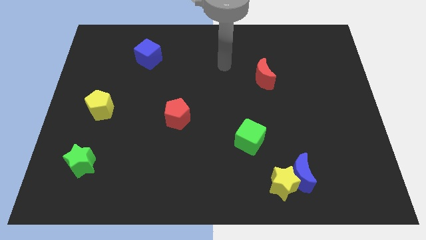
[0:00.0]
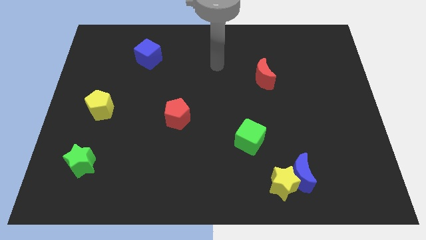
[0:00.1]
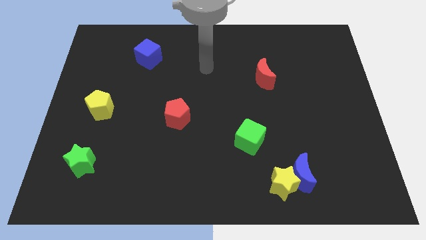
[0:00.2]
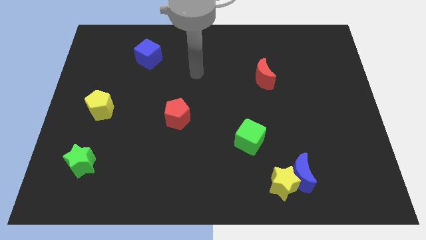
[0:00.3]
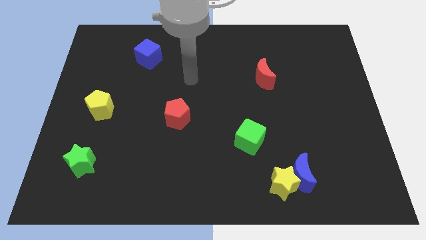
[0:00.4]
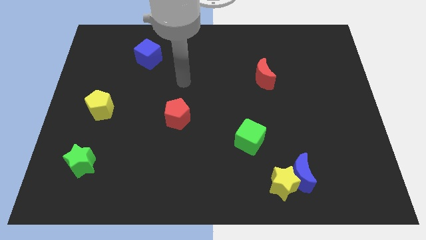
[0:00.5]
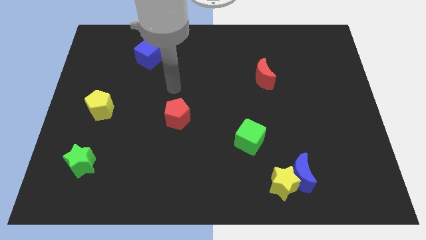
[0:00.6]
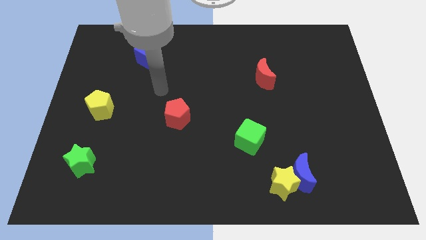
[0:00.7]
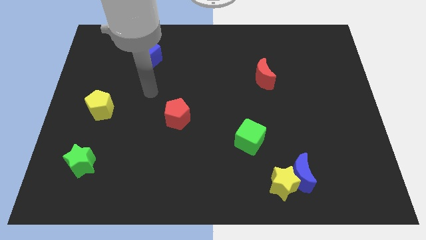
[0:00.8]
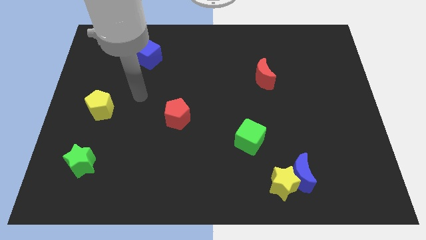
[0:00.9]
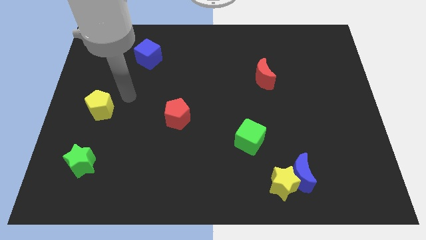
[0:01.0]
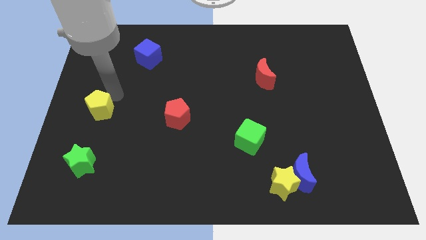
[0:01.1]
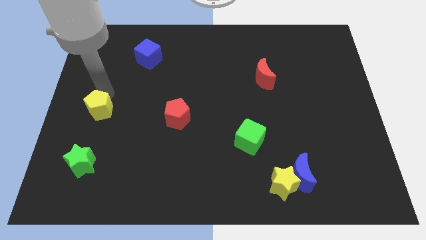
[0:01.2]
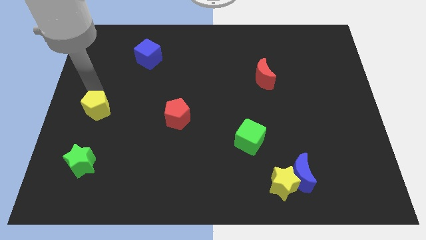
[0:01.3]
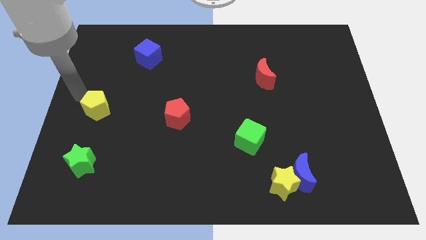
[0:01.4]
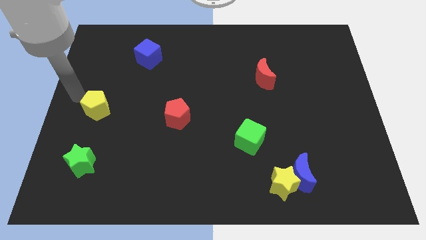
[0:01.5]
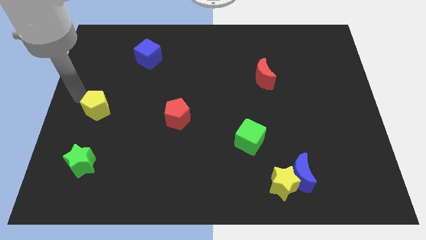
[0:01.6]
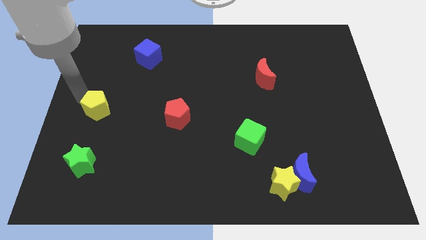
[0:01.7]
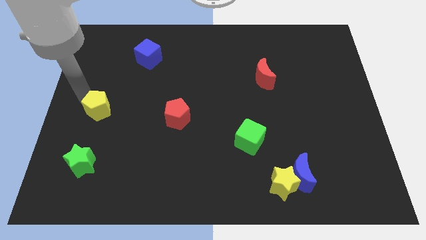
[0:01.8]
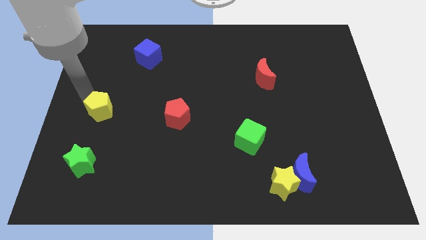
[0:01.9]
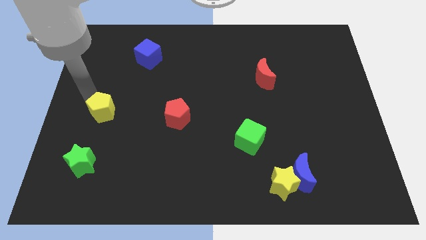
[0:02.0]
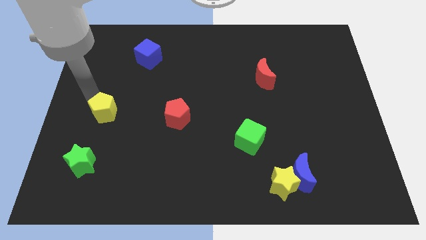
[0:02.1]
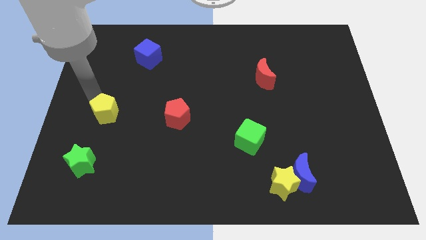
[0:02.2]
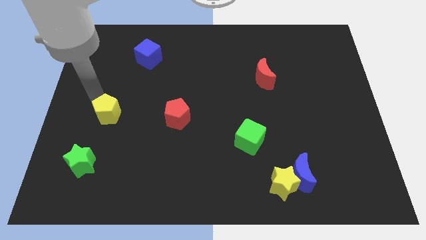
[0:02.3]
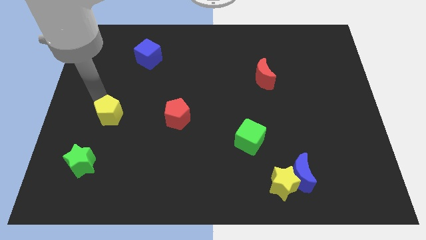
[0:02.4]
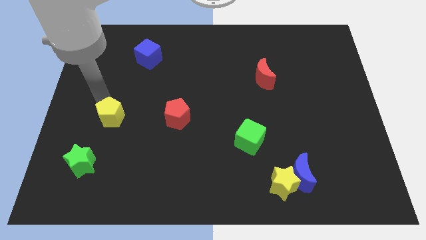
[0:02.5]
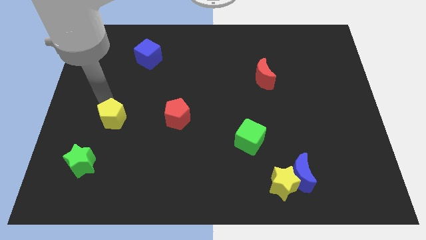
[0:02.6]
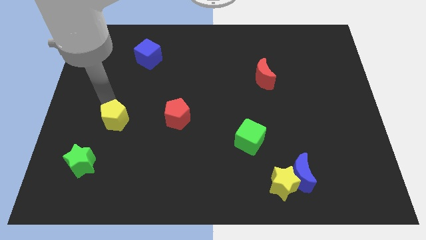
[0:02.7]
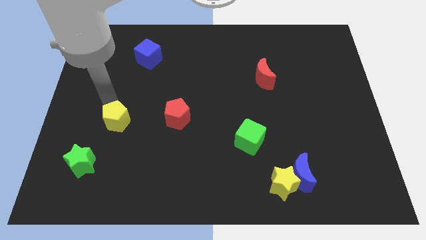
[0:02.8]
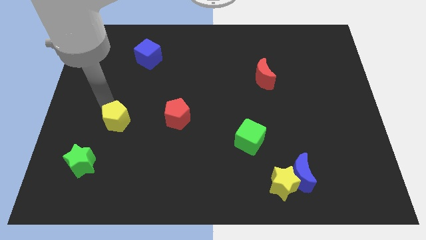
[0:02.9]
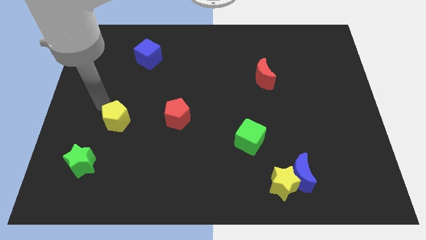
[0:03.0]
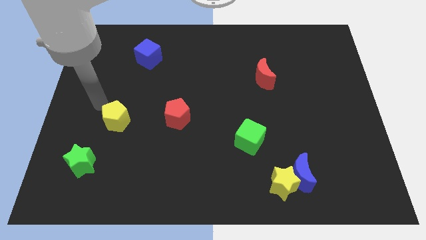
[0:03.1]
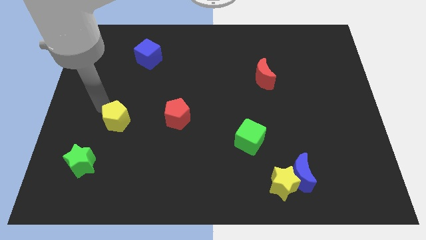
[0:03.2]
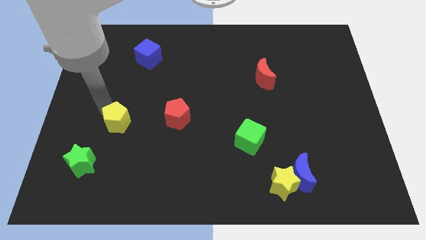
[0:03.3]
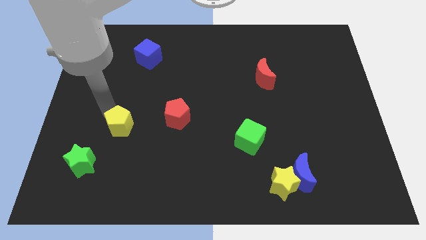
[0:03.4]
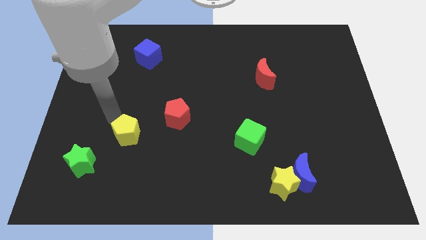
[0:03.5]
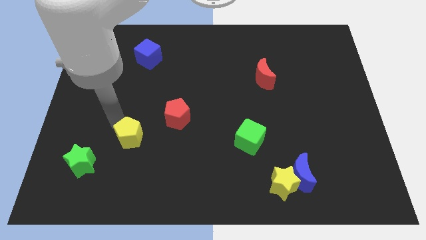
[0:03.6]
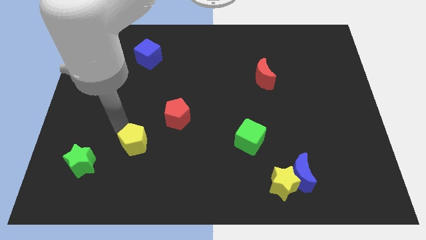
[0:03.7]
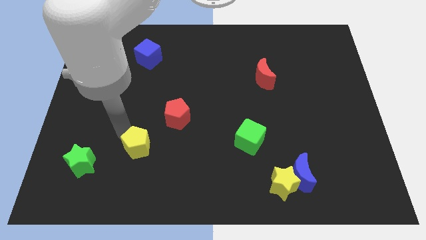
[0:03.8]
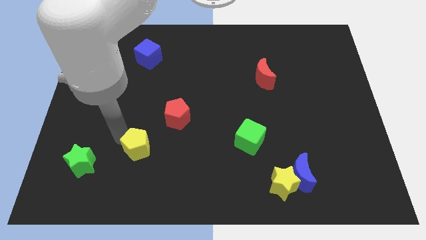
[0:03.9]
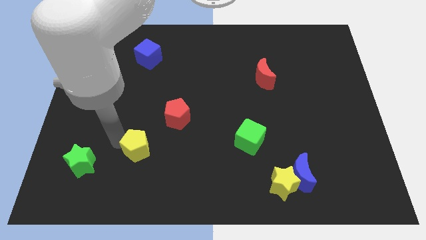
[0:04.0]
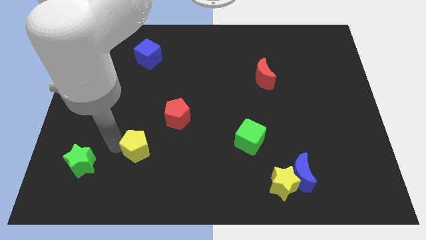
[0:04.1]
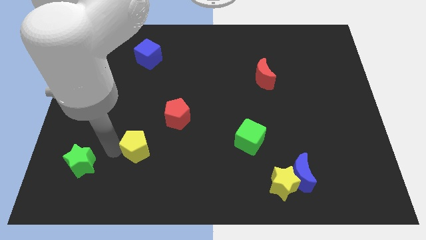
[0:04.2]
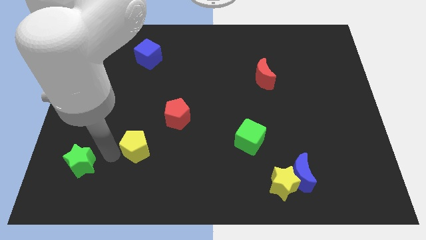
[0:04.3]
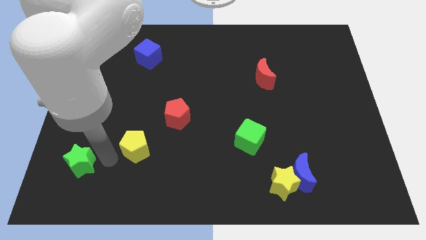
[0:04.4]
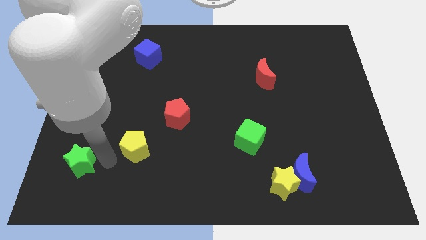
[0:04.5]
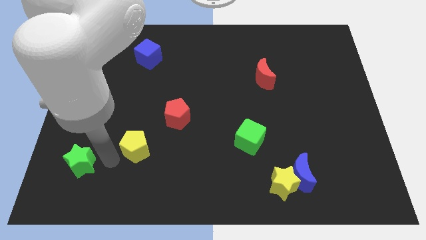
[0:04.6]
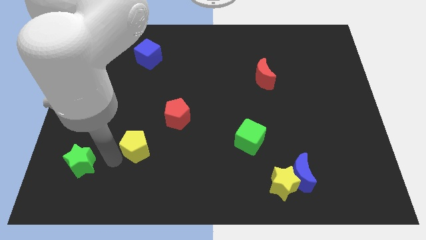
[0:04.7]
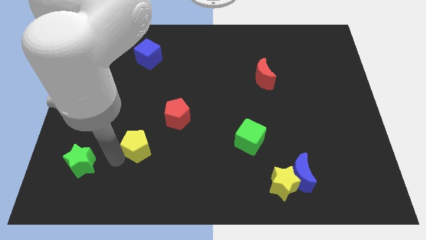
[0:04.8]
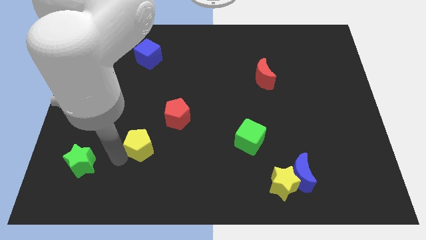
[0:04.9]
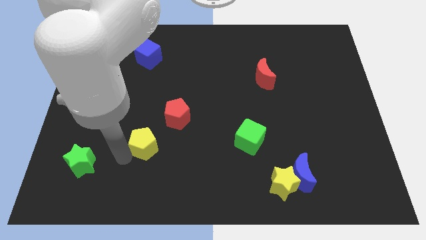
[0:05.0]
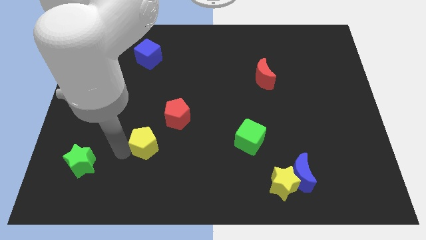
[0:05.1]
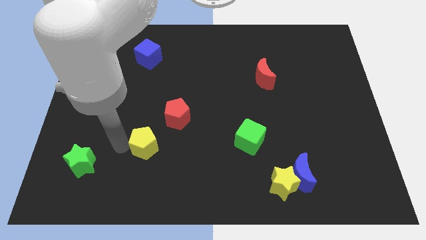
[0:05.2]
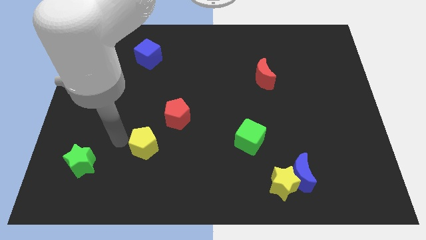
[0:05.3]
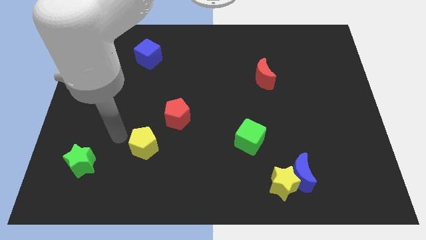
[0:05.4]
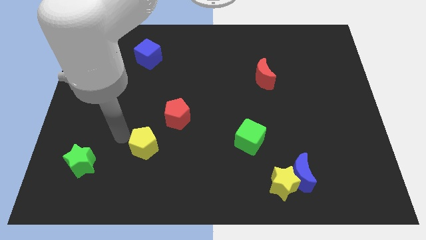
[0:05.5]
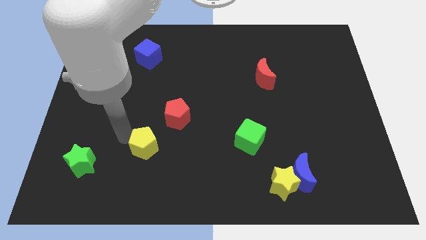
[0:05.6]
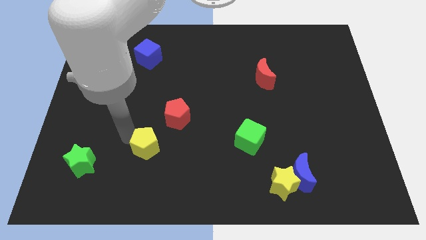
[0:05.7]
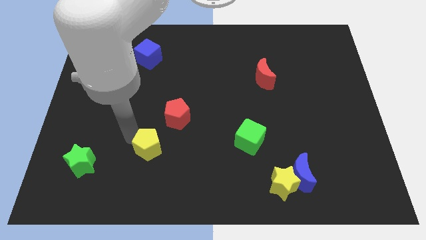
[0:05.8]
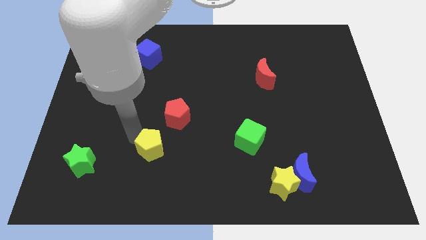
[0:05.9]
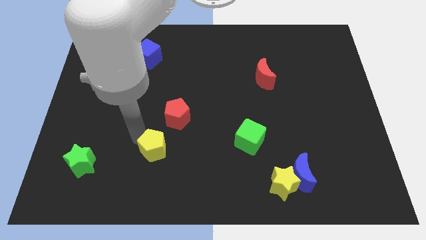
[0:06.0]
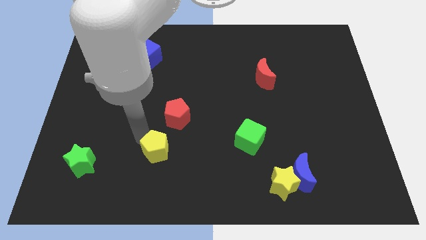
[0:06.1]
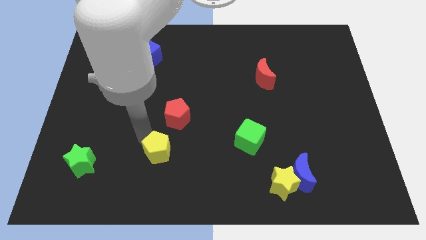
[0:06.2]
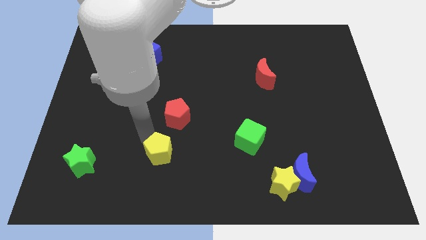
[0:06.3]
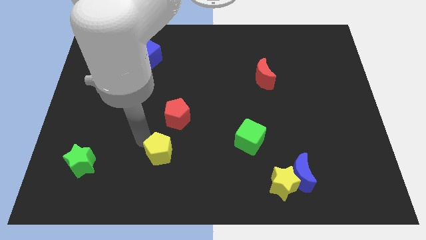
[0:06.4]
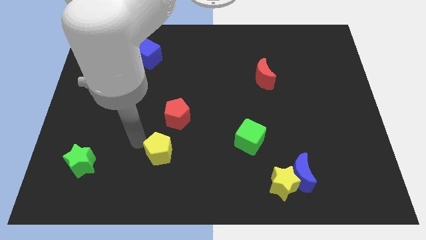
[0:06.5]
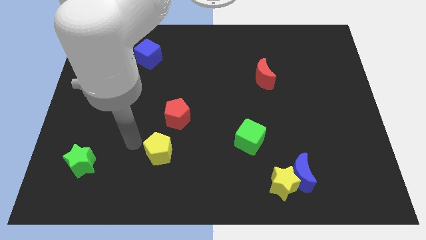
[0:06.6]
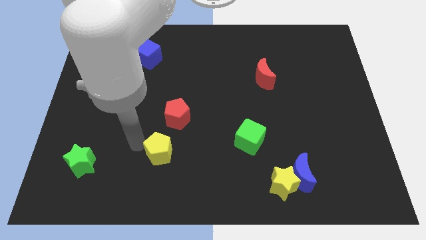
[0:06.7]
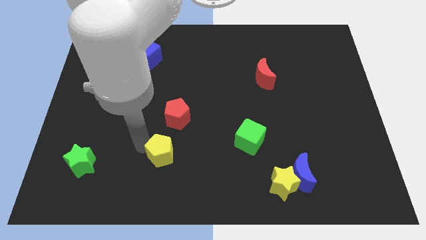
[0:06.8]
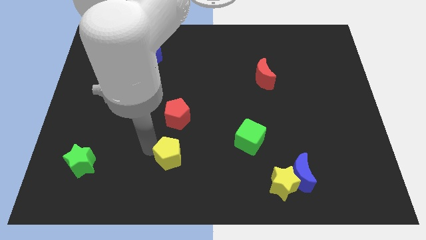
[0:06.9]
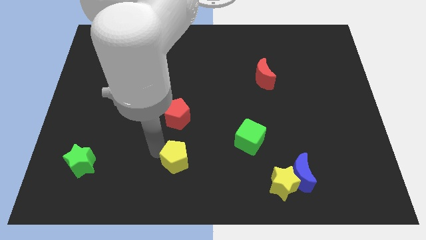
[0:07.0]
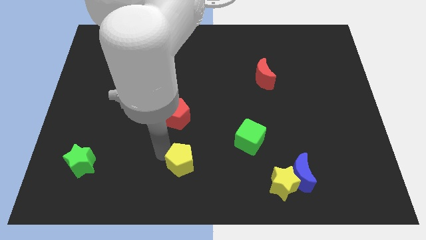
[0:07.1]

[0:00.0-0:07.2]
slide the yellow pentagon to the bottom side
